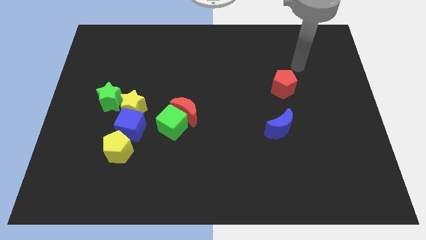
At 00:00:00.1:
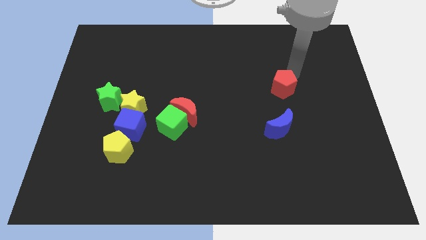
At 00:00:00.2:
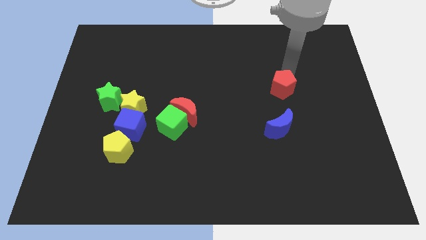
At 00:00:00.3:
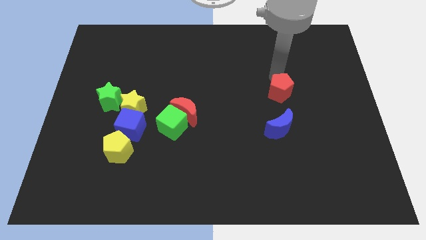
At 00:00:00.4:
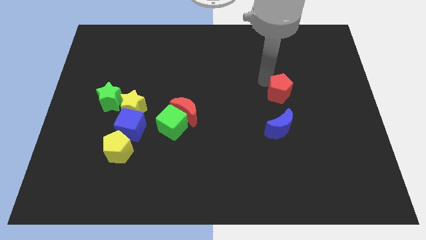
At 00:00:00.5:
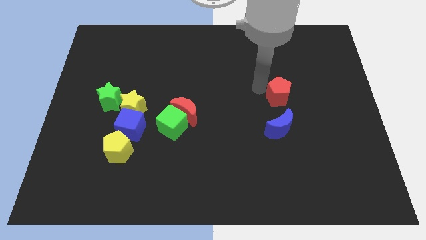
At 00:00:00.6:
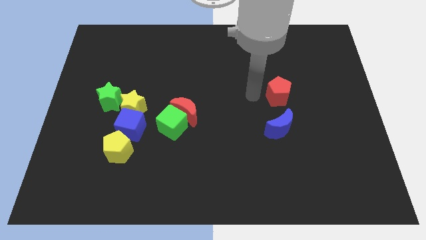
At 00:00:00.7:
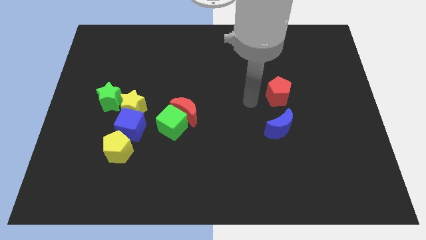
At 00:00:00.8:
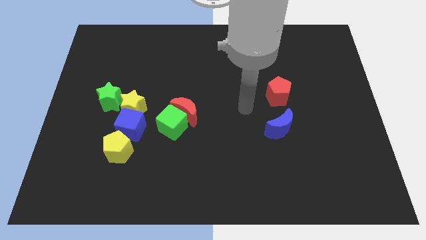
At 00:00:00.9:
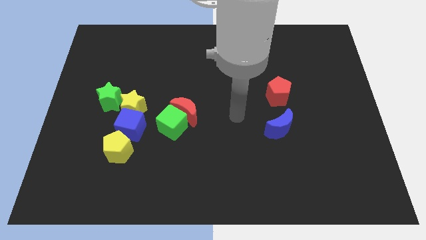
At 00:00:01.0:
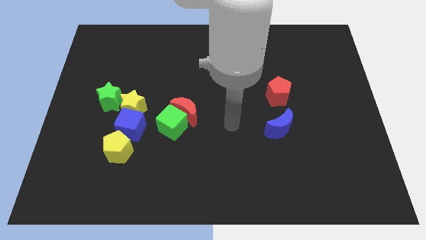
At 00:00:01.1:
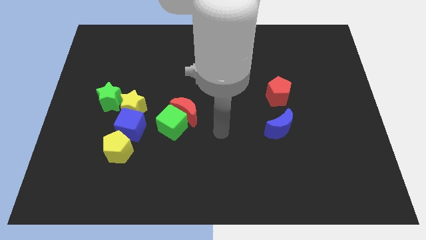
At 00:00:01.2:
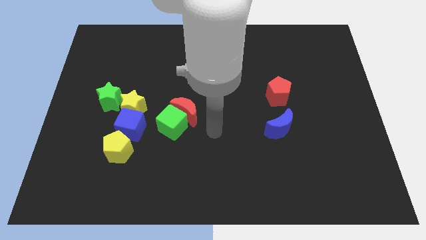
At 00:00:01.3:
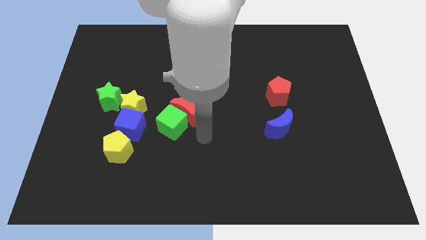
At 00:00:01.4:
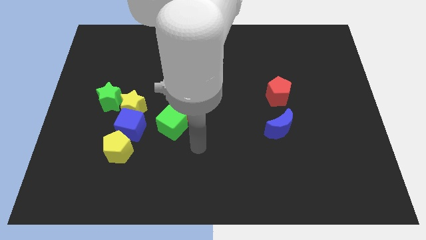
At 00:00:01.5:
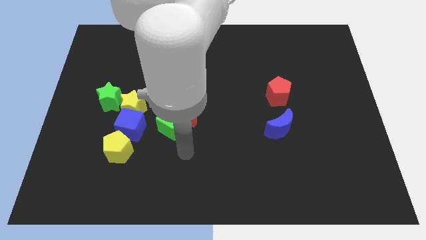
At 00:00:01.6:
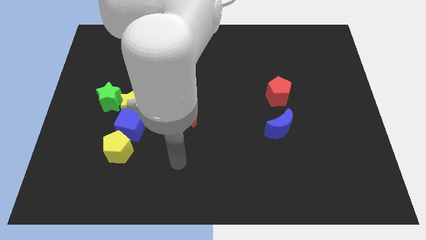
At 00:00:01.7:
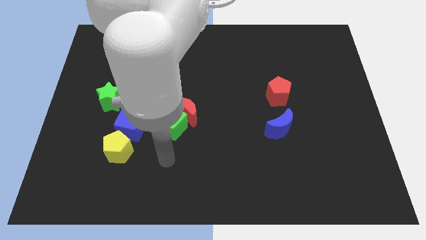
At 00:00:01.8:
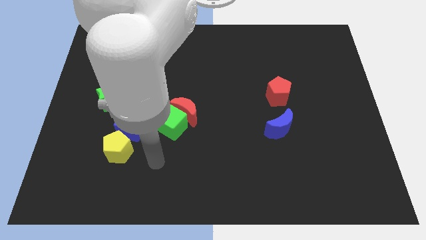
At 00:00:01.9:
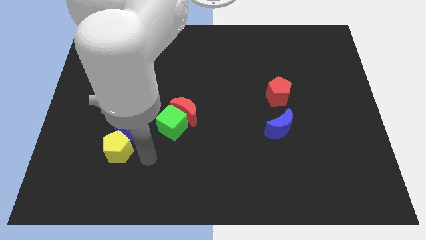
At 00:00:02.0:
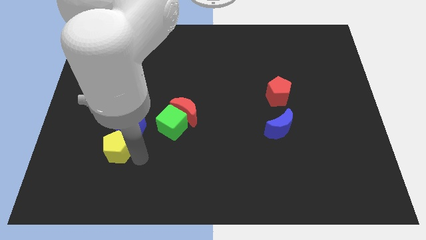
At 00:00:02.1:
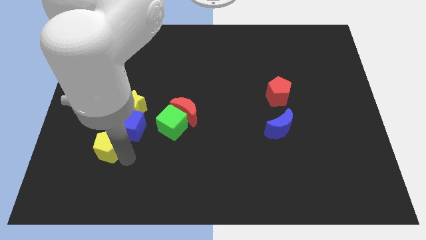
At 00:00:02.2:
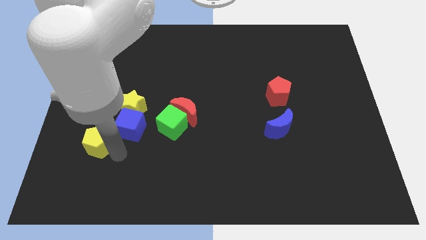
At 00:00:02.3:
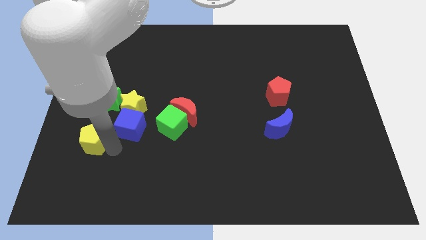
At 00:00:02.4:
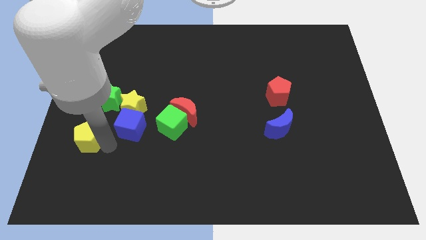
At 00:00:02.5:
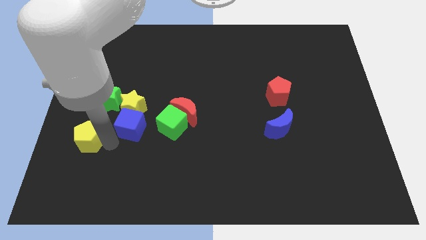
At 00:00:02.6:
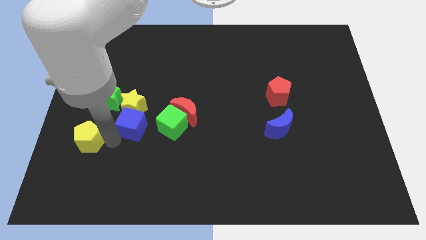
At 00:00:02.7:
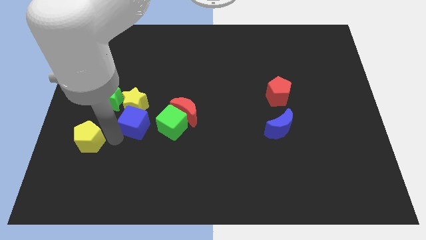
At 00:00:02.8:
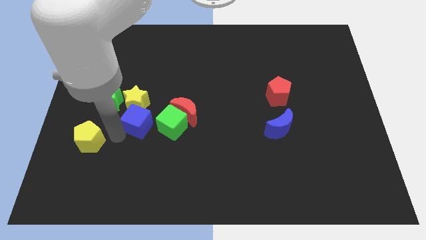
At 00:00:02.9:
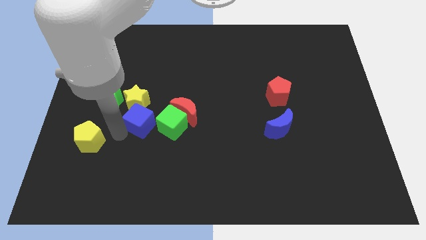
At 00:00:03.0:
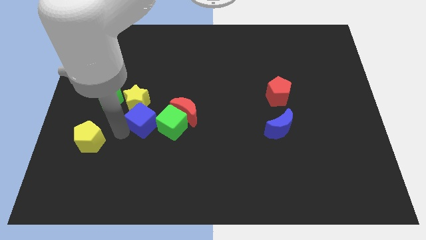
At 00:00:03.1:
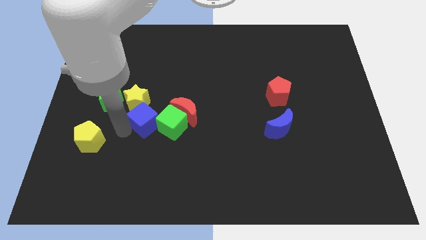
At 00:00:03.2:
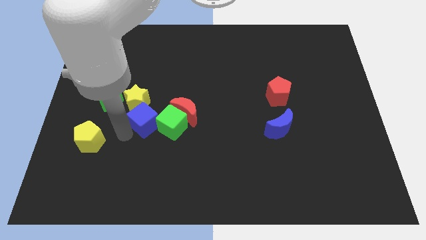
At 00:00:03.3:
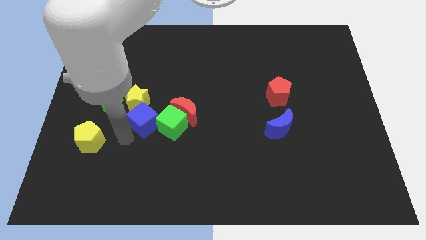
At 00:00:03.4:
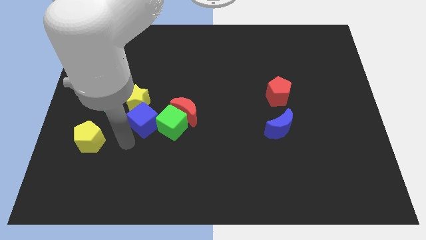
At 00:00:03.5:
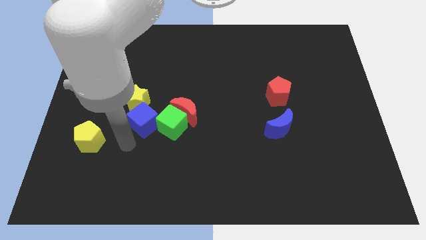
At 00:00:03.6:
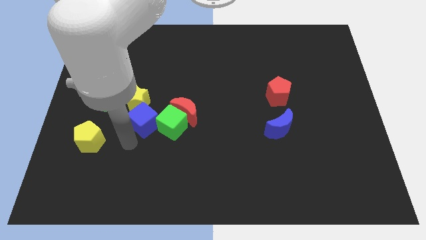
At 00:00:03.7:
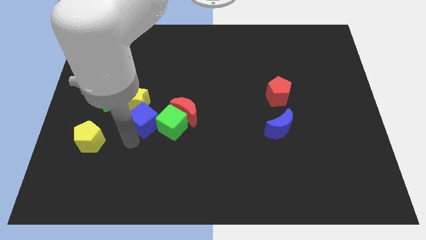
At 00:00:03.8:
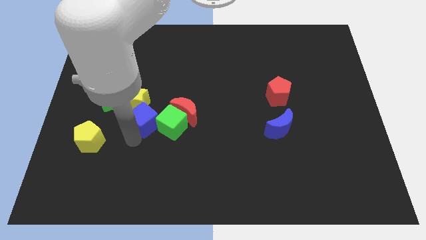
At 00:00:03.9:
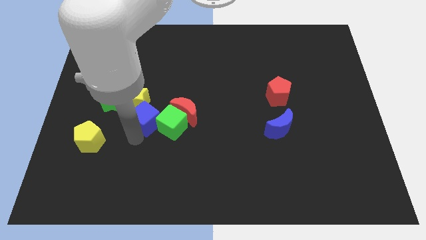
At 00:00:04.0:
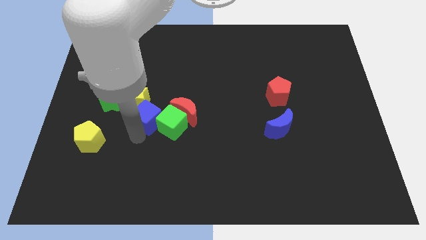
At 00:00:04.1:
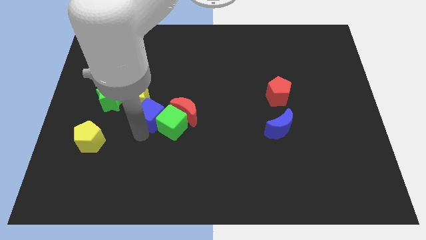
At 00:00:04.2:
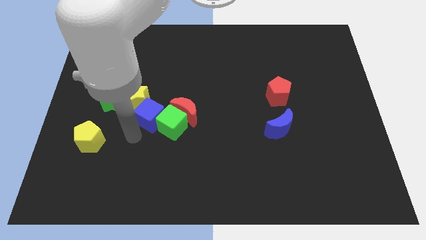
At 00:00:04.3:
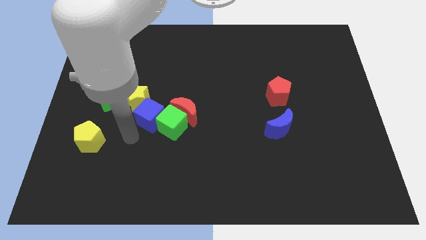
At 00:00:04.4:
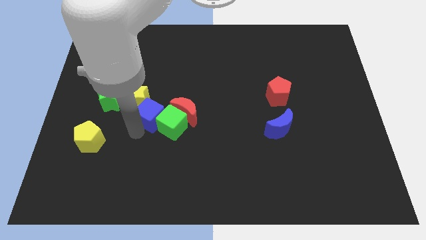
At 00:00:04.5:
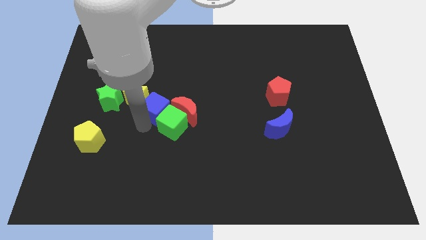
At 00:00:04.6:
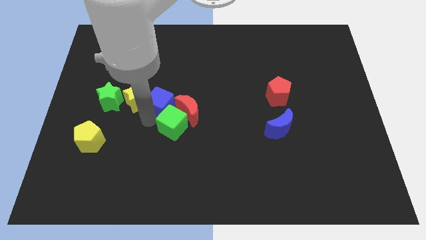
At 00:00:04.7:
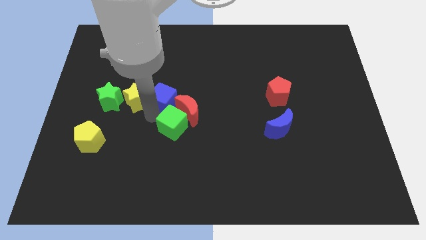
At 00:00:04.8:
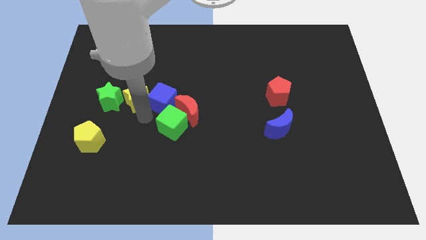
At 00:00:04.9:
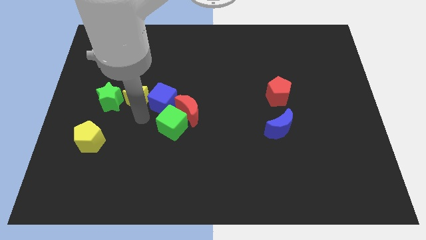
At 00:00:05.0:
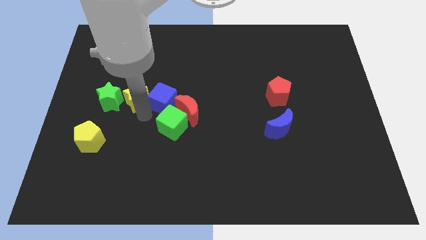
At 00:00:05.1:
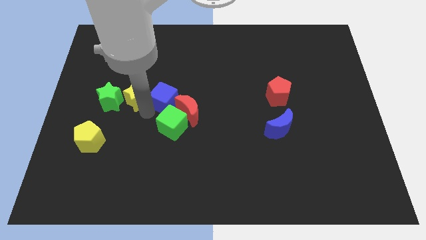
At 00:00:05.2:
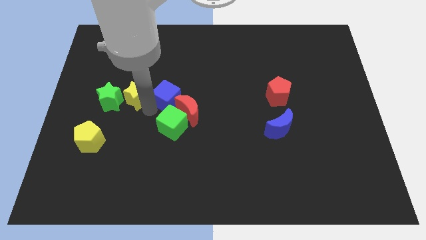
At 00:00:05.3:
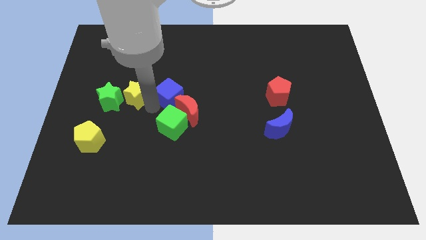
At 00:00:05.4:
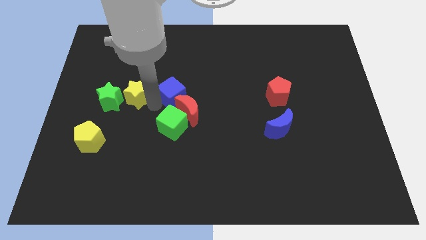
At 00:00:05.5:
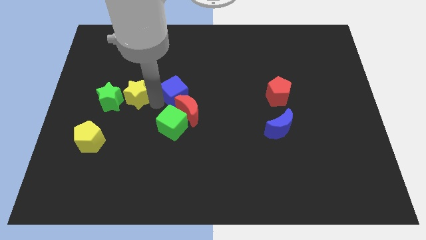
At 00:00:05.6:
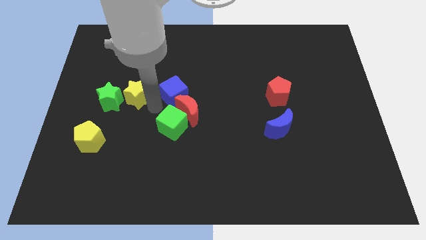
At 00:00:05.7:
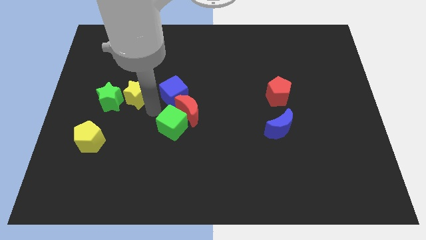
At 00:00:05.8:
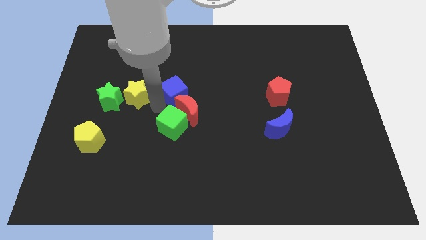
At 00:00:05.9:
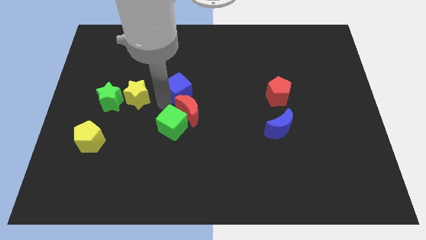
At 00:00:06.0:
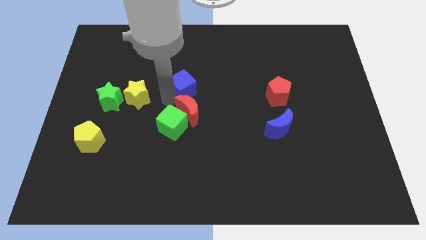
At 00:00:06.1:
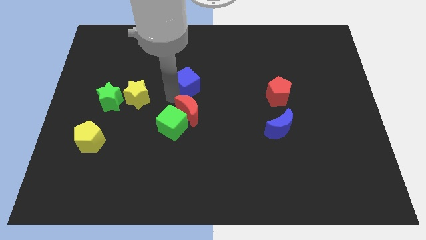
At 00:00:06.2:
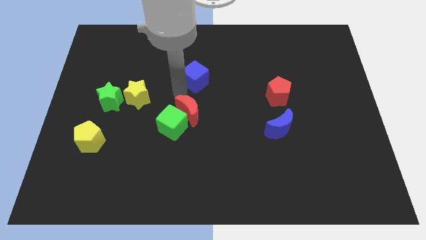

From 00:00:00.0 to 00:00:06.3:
slide the blue cube diagonally upwards and to the right

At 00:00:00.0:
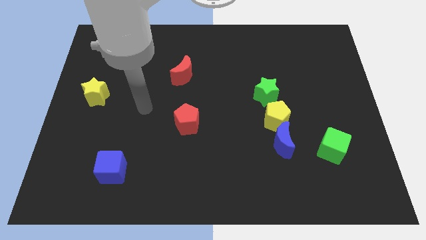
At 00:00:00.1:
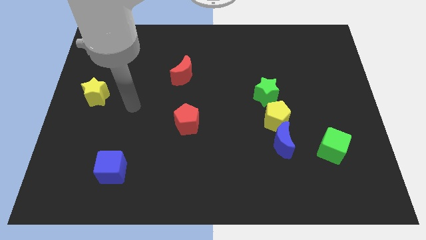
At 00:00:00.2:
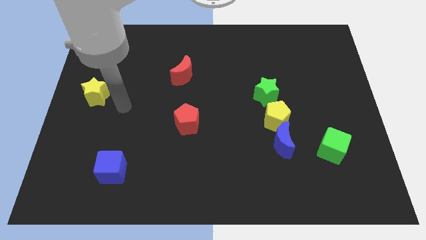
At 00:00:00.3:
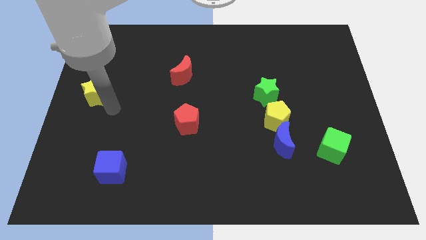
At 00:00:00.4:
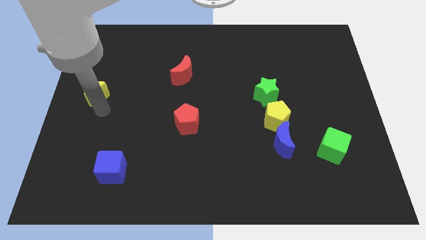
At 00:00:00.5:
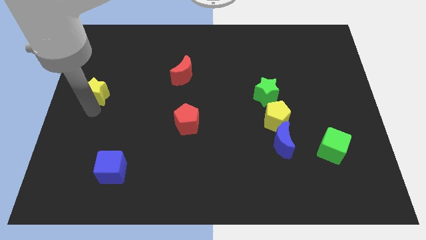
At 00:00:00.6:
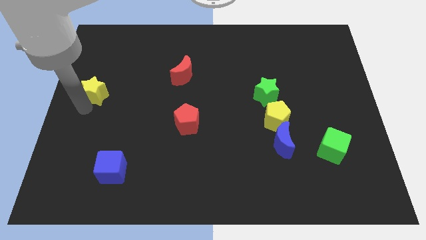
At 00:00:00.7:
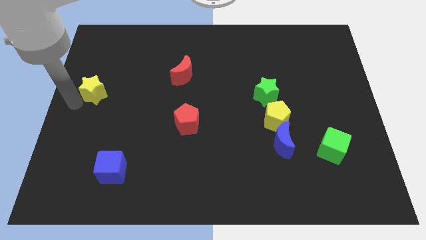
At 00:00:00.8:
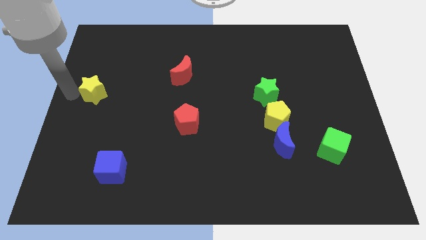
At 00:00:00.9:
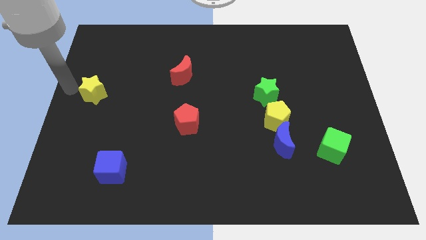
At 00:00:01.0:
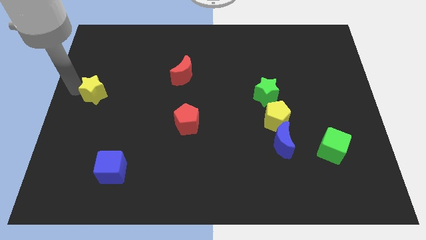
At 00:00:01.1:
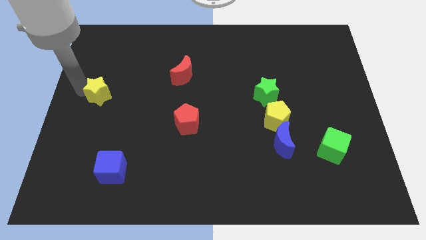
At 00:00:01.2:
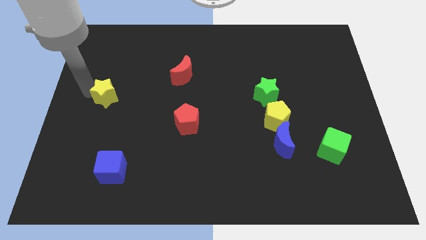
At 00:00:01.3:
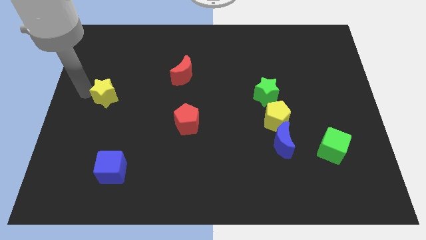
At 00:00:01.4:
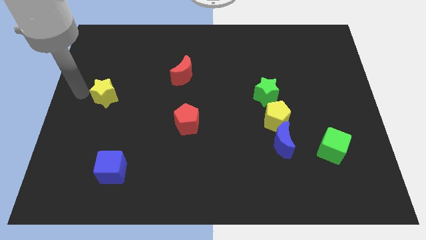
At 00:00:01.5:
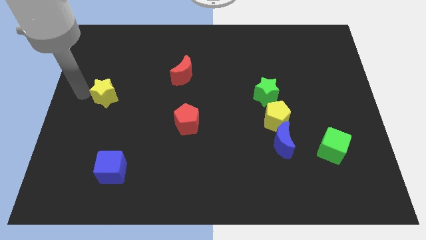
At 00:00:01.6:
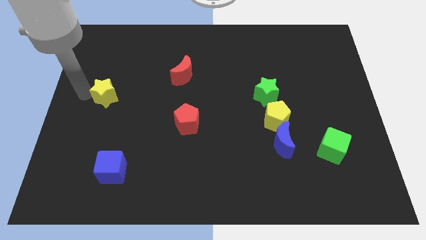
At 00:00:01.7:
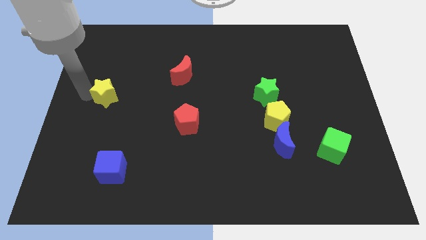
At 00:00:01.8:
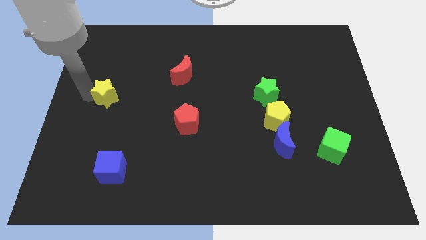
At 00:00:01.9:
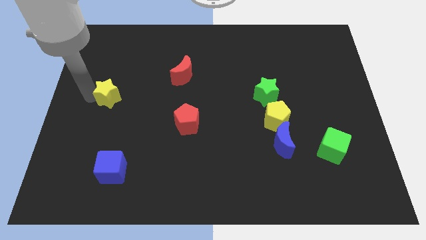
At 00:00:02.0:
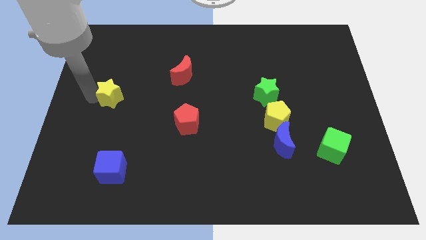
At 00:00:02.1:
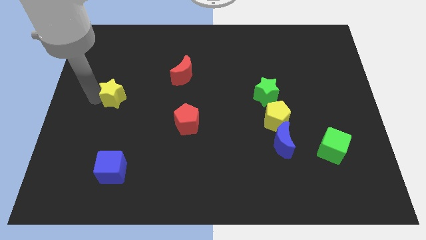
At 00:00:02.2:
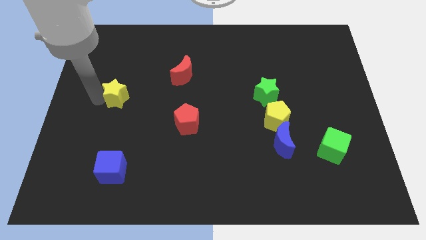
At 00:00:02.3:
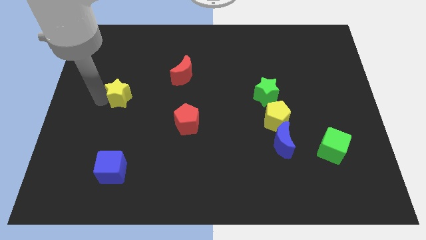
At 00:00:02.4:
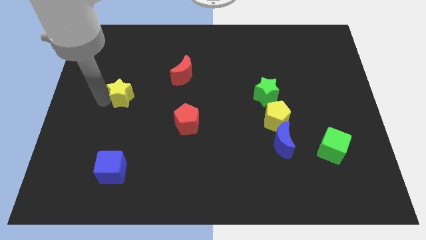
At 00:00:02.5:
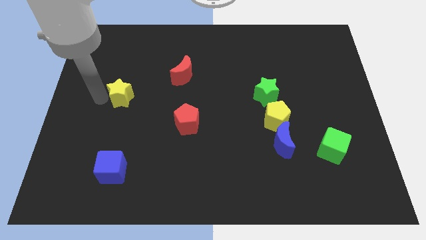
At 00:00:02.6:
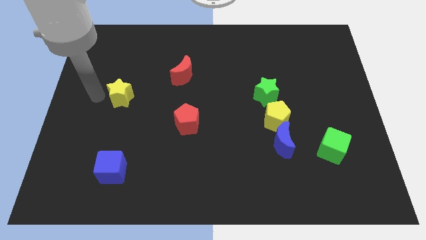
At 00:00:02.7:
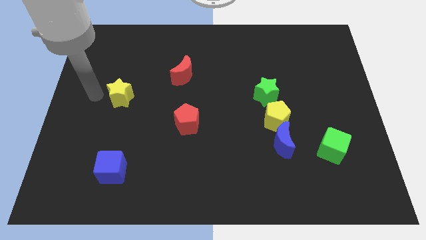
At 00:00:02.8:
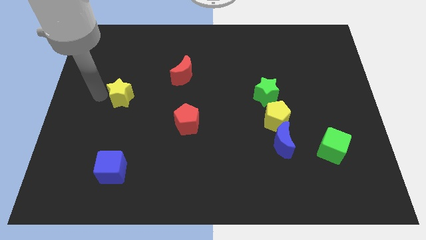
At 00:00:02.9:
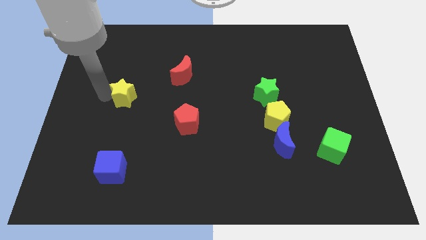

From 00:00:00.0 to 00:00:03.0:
push the yellow star right somewhat
